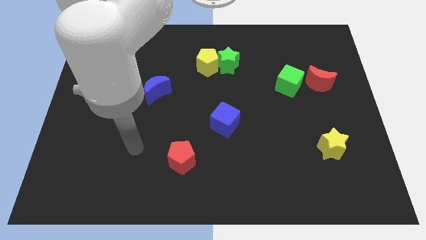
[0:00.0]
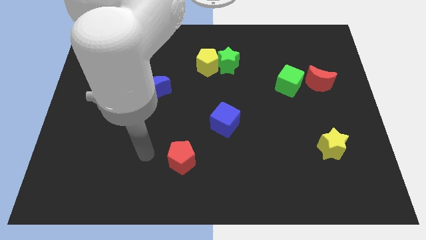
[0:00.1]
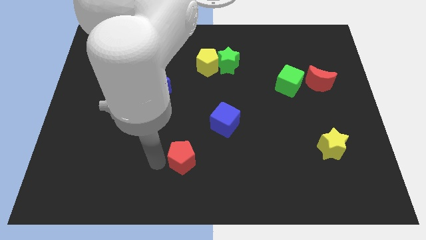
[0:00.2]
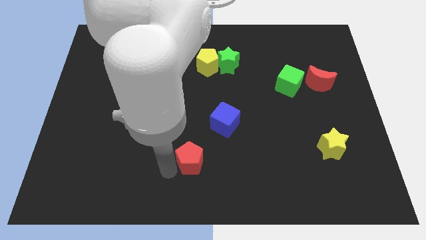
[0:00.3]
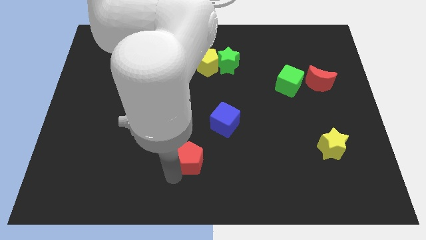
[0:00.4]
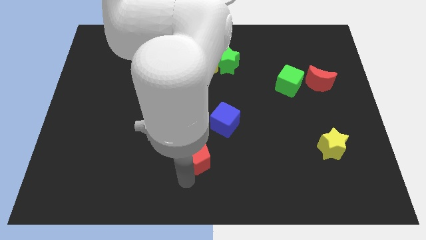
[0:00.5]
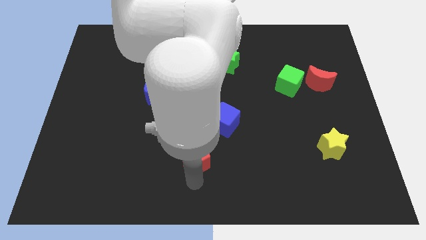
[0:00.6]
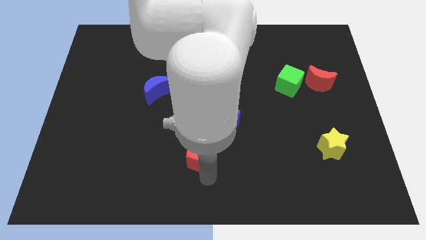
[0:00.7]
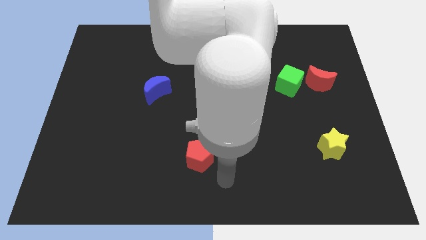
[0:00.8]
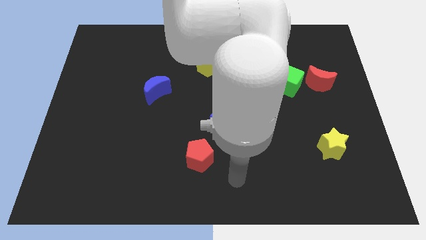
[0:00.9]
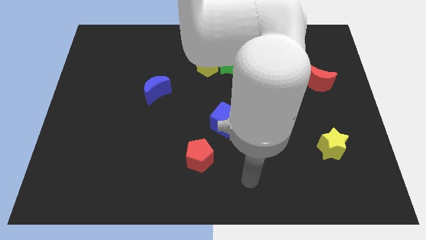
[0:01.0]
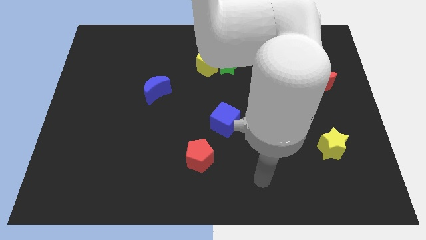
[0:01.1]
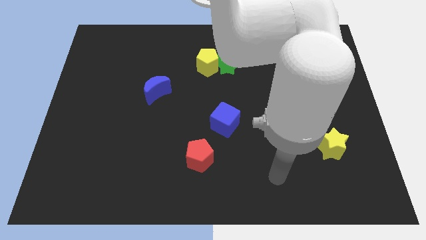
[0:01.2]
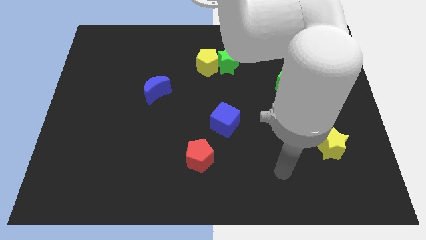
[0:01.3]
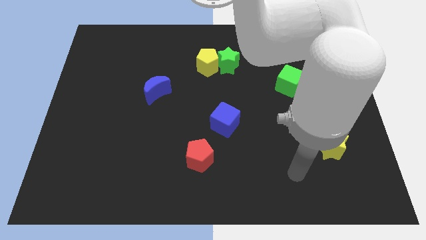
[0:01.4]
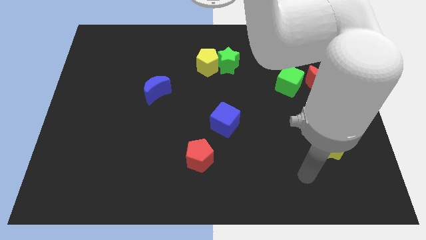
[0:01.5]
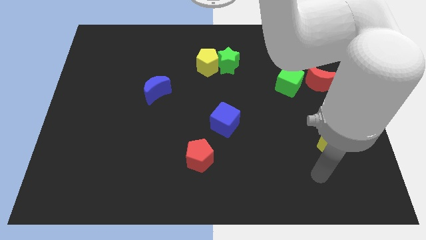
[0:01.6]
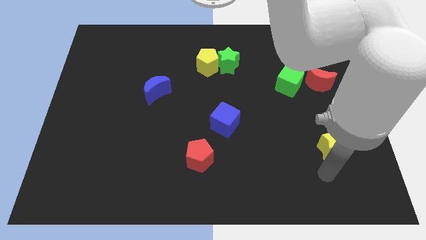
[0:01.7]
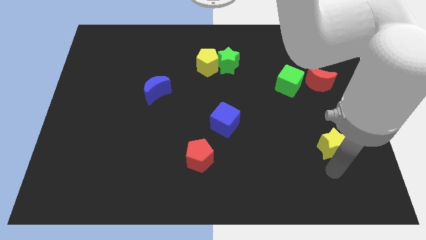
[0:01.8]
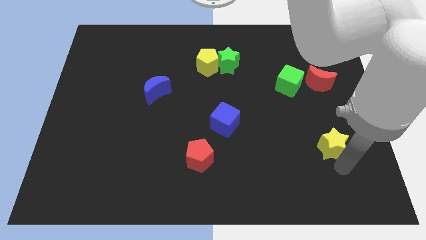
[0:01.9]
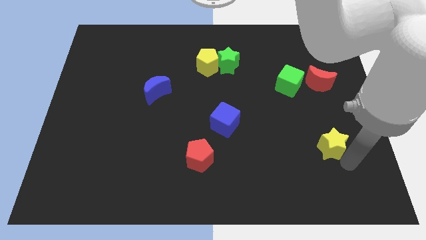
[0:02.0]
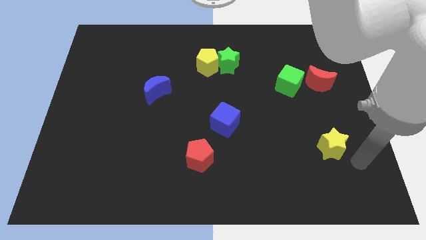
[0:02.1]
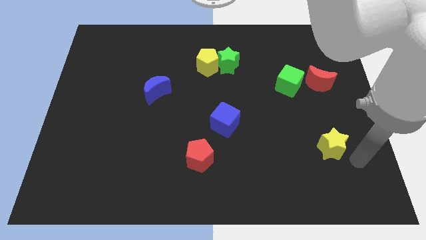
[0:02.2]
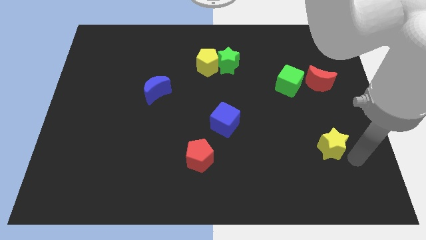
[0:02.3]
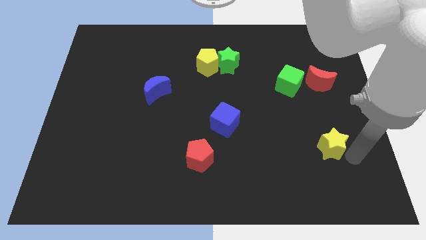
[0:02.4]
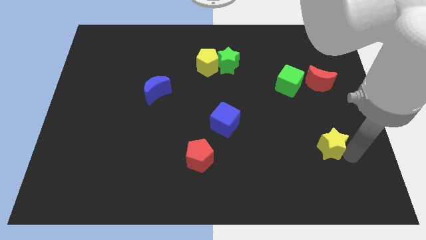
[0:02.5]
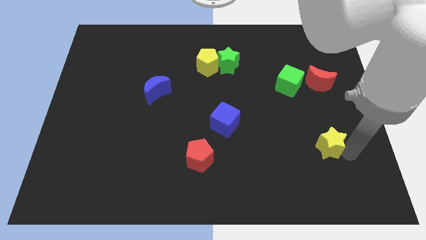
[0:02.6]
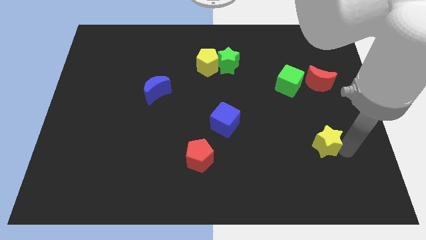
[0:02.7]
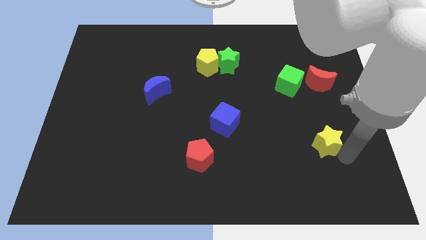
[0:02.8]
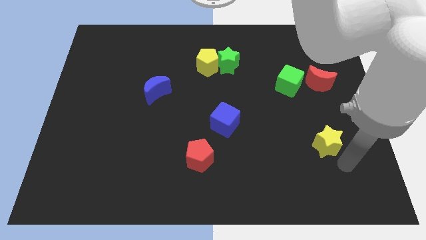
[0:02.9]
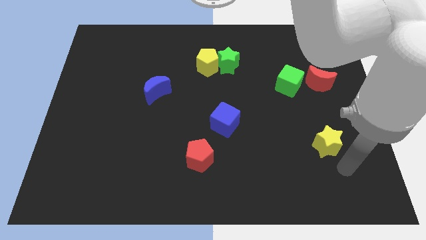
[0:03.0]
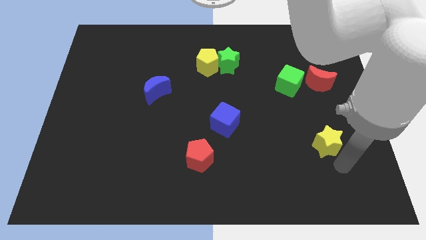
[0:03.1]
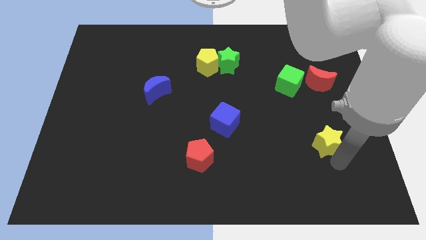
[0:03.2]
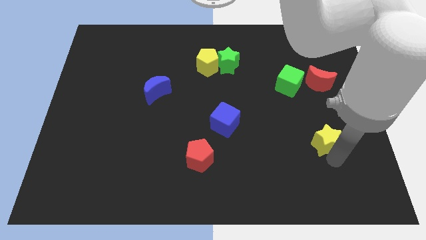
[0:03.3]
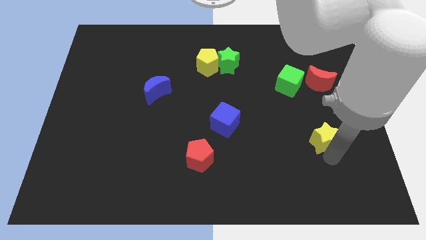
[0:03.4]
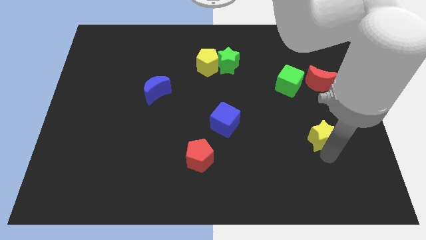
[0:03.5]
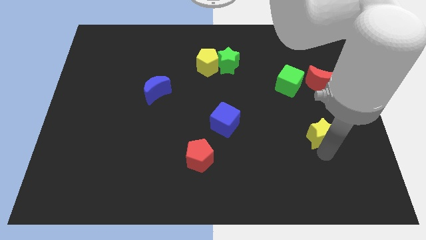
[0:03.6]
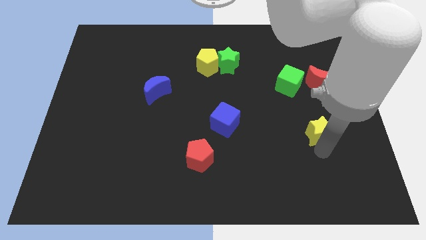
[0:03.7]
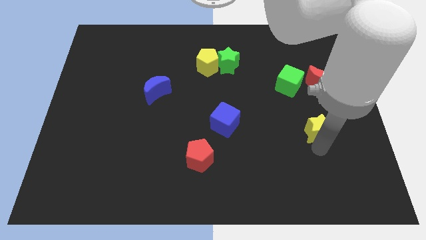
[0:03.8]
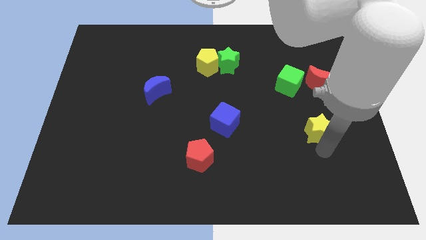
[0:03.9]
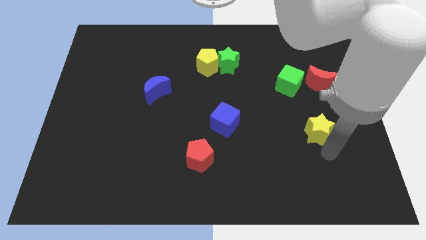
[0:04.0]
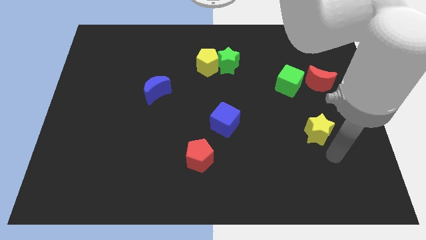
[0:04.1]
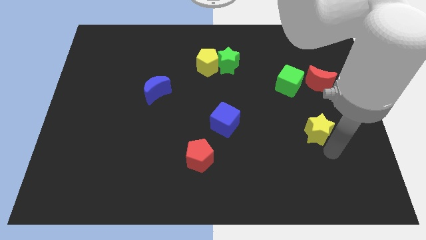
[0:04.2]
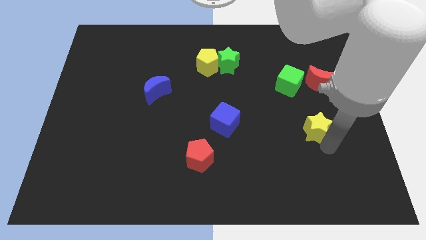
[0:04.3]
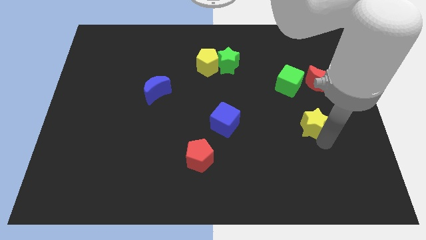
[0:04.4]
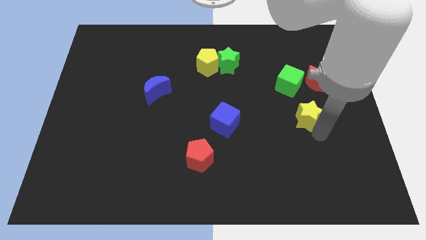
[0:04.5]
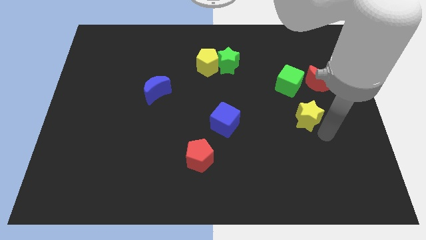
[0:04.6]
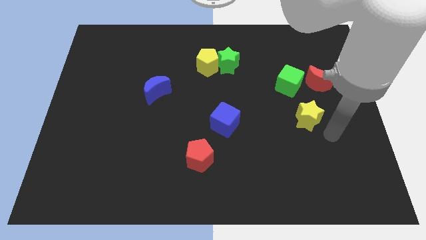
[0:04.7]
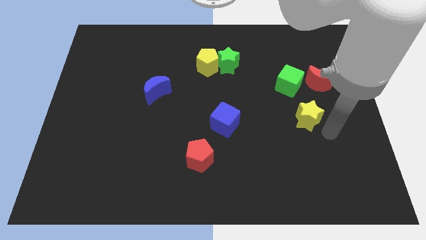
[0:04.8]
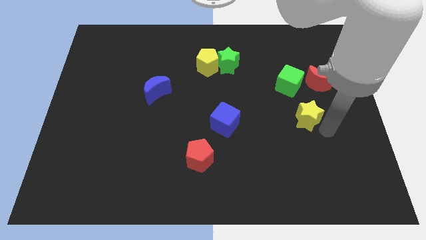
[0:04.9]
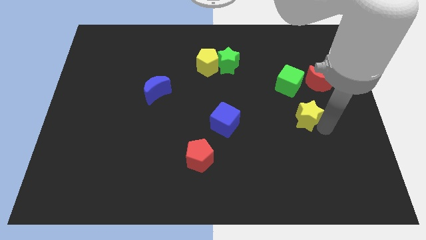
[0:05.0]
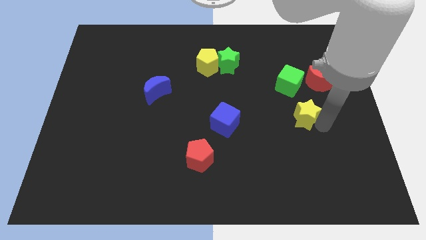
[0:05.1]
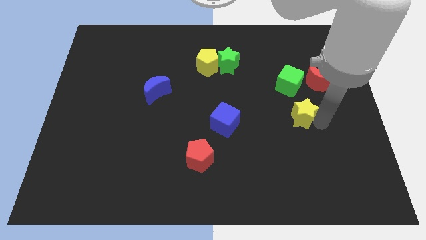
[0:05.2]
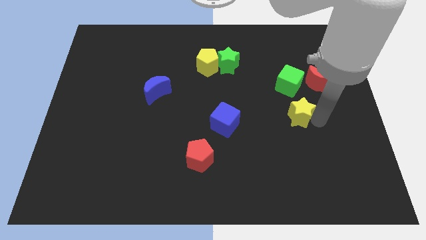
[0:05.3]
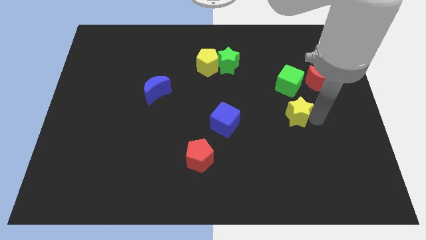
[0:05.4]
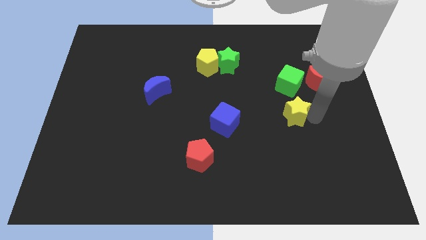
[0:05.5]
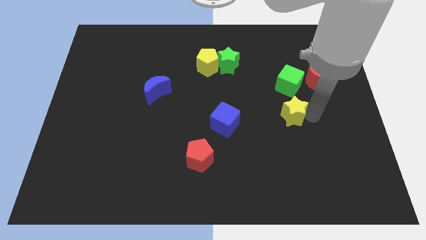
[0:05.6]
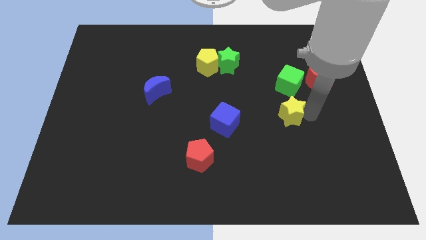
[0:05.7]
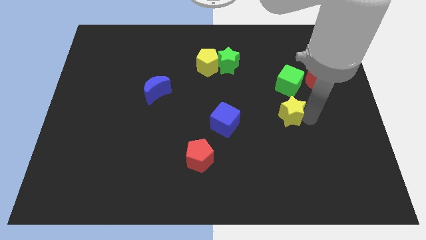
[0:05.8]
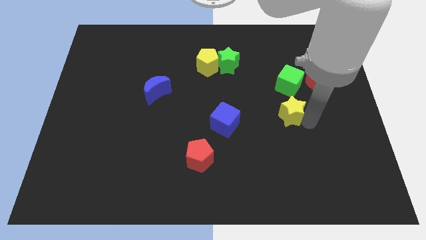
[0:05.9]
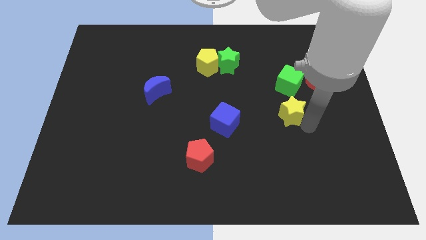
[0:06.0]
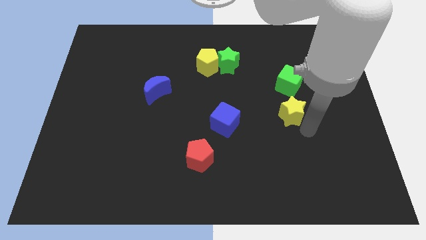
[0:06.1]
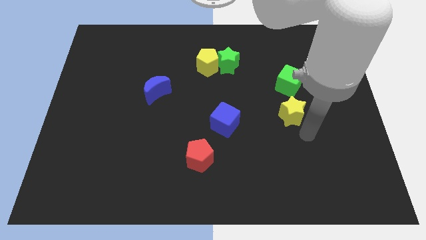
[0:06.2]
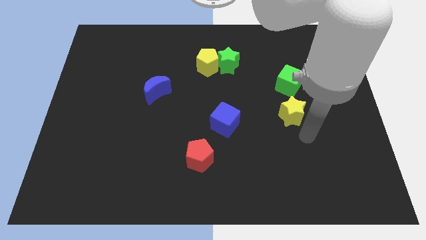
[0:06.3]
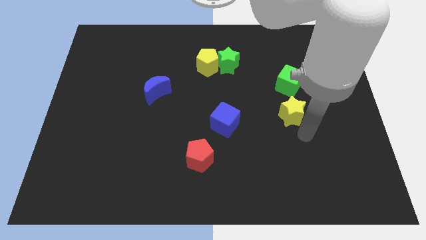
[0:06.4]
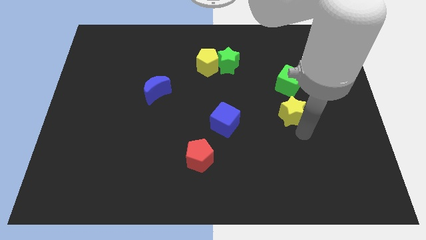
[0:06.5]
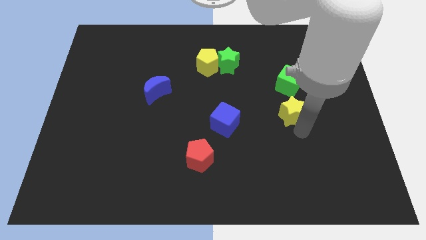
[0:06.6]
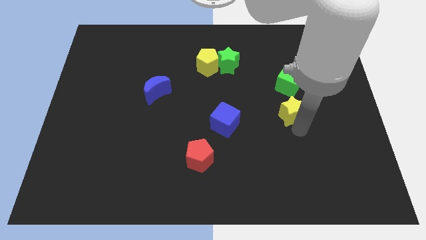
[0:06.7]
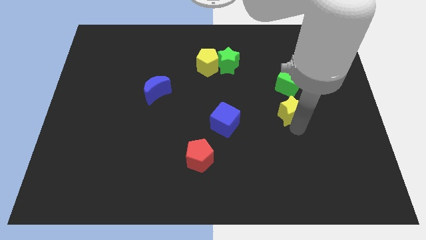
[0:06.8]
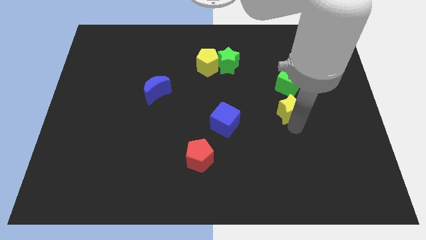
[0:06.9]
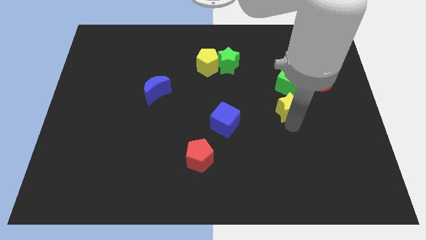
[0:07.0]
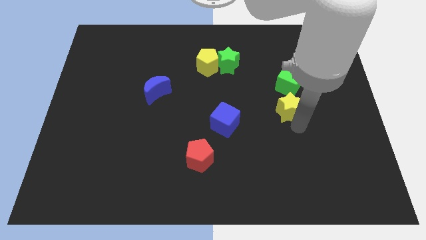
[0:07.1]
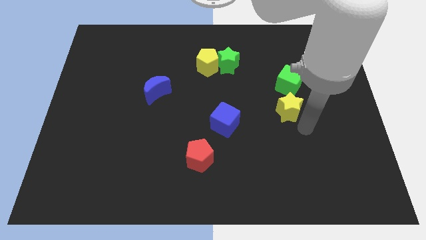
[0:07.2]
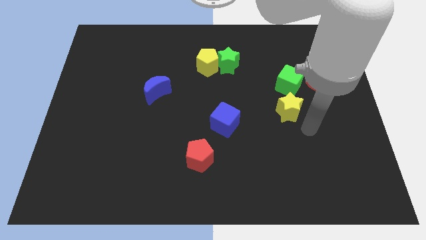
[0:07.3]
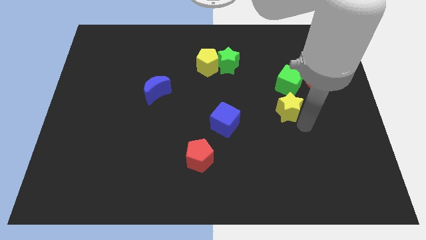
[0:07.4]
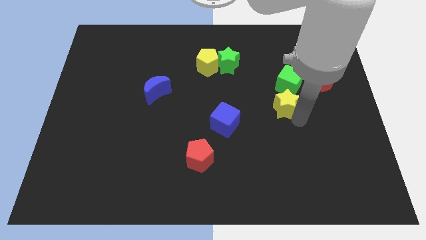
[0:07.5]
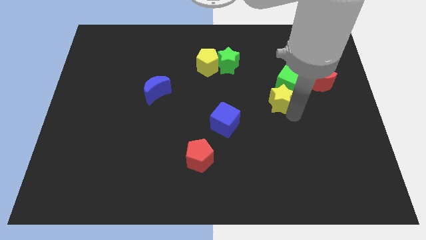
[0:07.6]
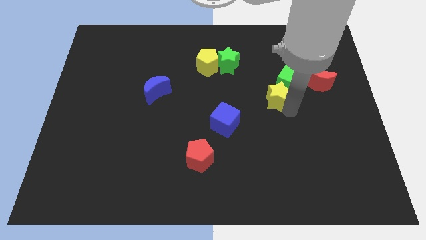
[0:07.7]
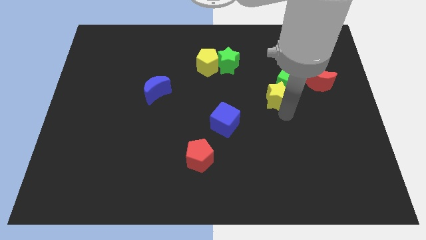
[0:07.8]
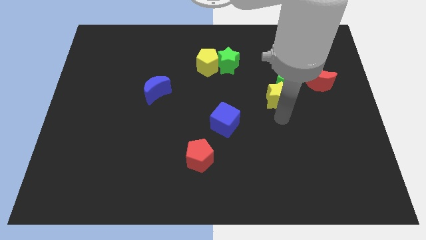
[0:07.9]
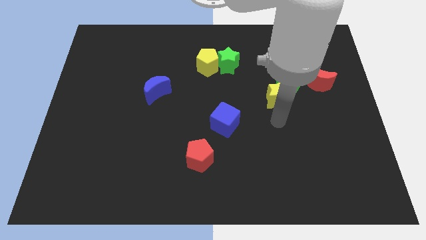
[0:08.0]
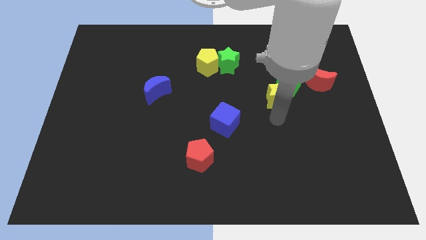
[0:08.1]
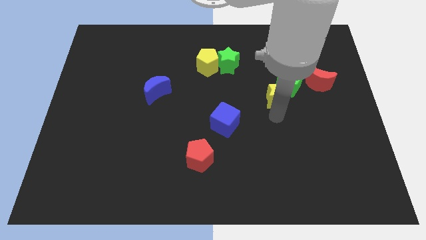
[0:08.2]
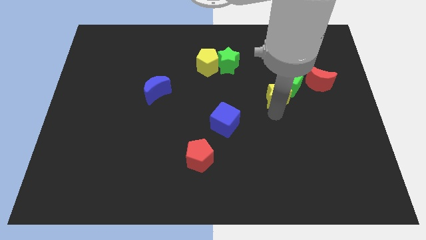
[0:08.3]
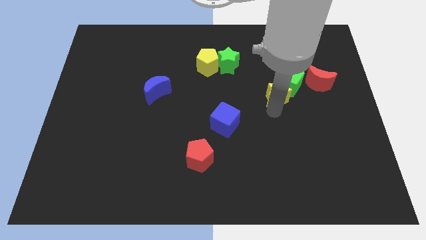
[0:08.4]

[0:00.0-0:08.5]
slide the yellow star just left of the red moon
